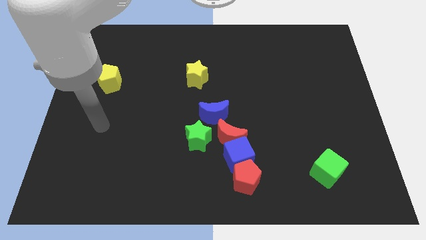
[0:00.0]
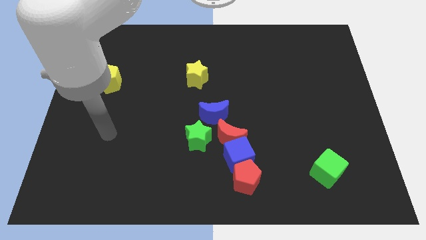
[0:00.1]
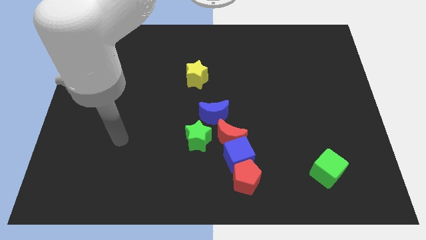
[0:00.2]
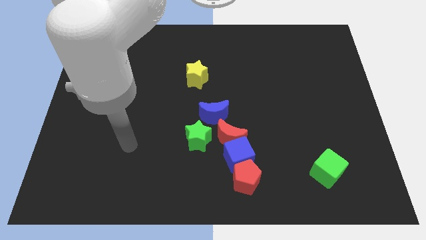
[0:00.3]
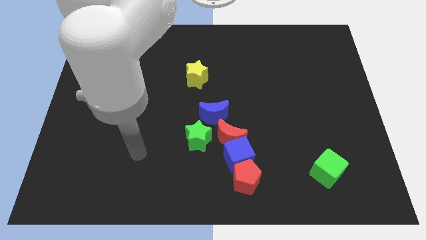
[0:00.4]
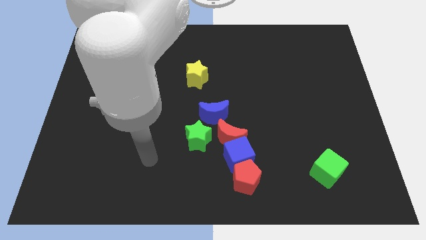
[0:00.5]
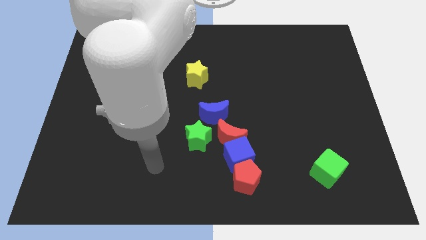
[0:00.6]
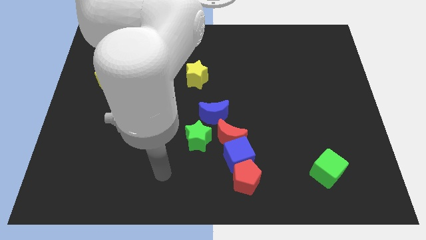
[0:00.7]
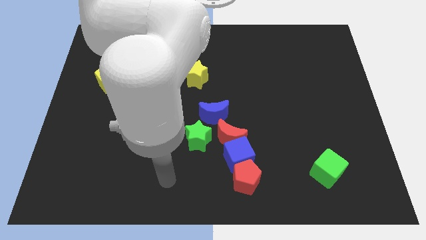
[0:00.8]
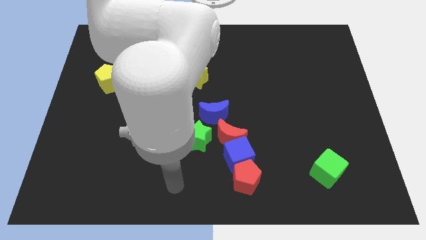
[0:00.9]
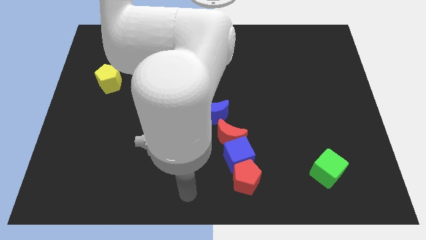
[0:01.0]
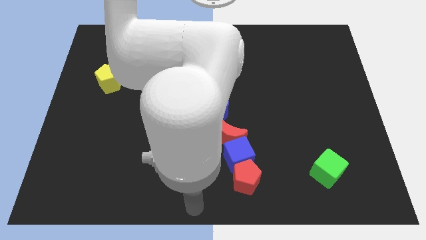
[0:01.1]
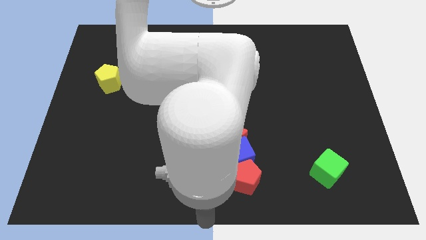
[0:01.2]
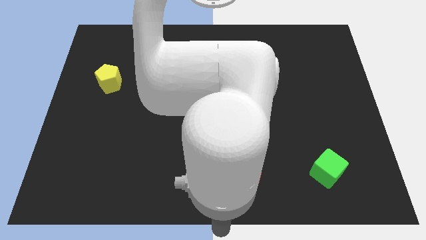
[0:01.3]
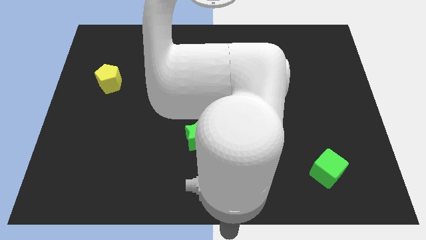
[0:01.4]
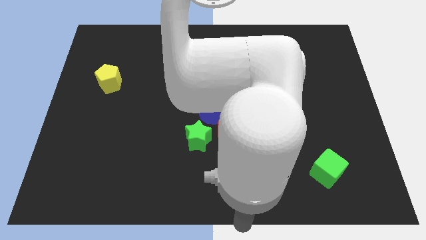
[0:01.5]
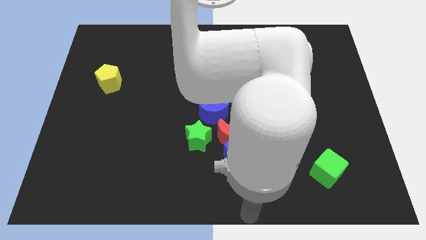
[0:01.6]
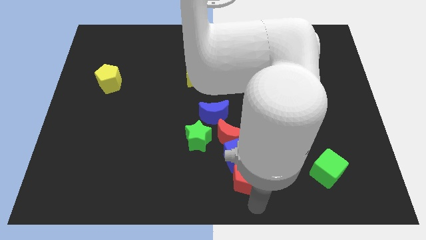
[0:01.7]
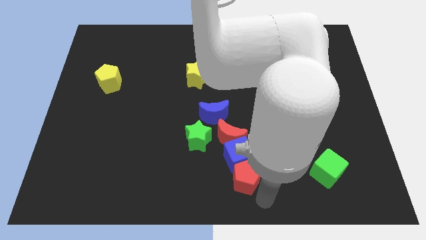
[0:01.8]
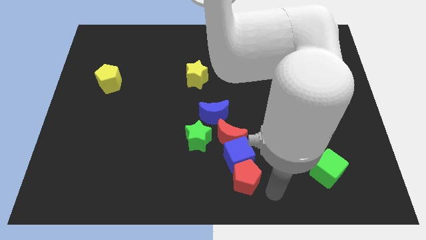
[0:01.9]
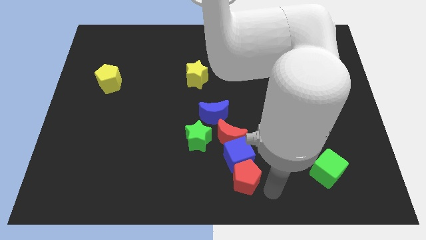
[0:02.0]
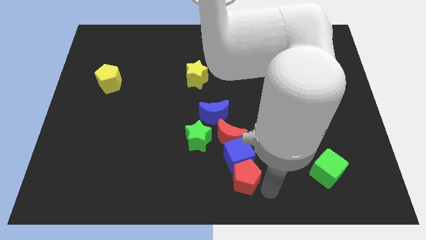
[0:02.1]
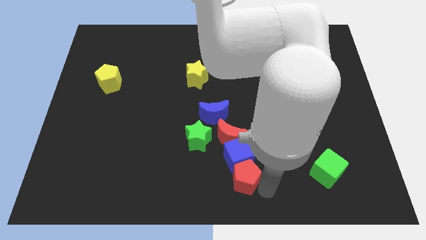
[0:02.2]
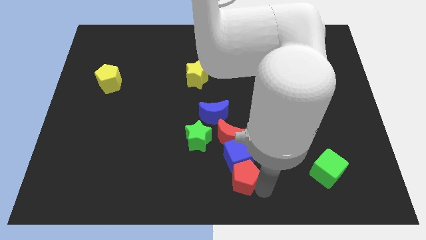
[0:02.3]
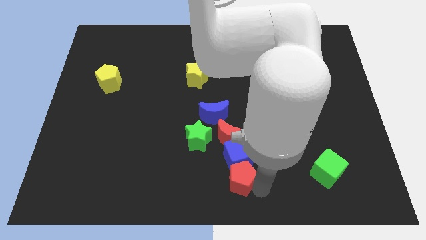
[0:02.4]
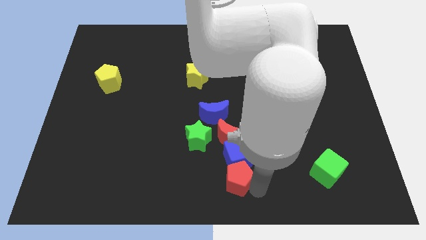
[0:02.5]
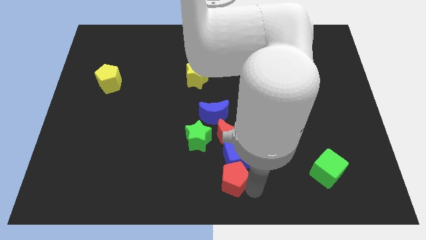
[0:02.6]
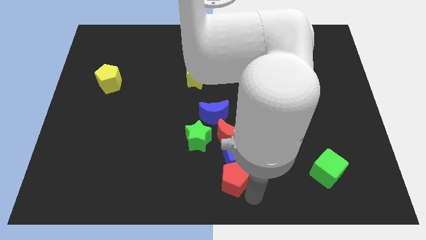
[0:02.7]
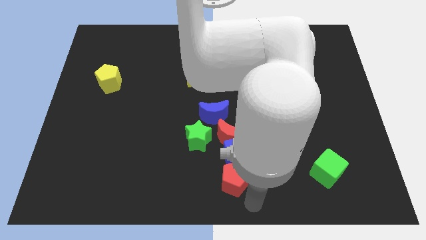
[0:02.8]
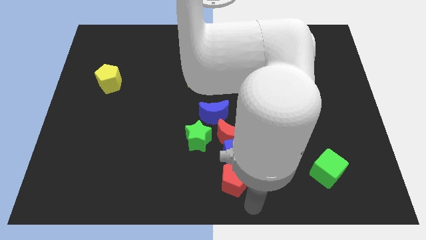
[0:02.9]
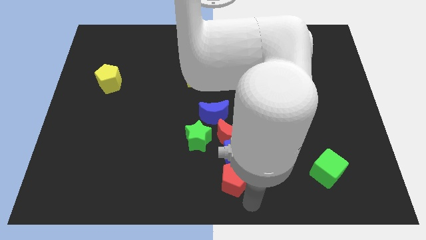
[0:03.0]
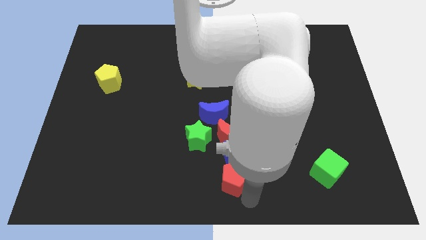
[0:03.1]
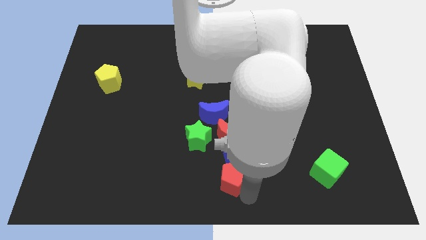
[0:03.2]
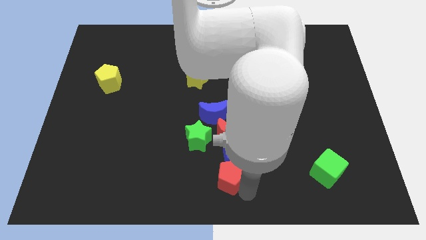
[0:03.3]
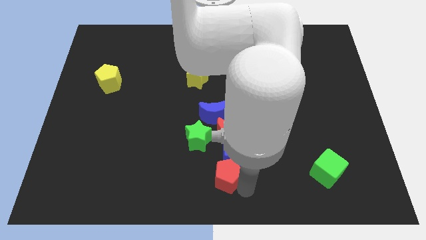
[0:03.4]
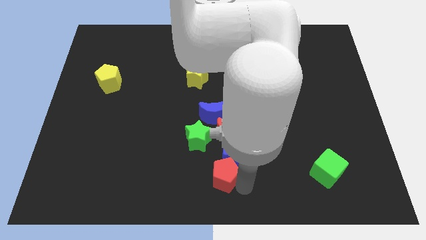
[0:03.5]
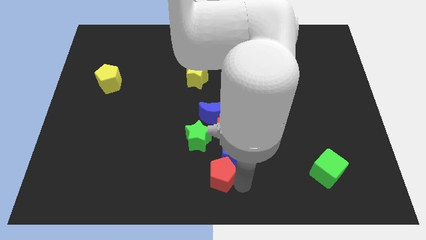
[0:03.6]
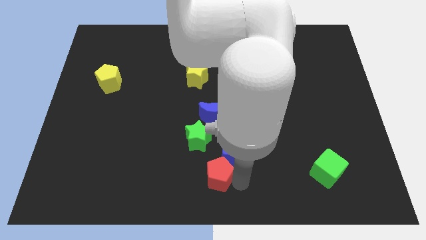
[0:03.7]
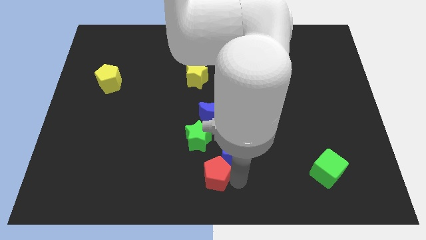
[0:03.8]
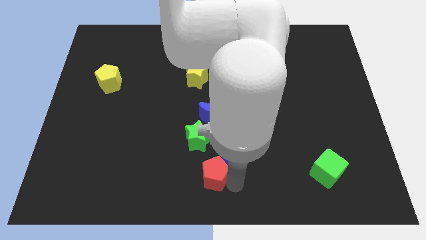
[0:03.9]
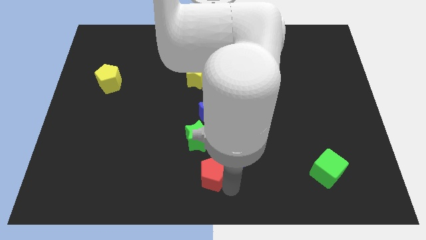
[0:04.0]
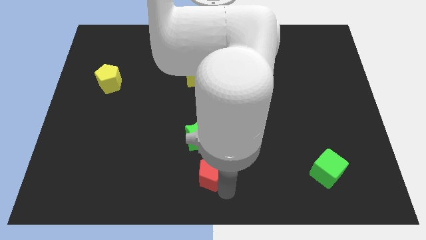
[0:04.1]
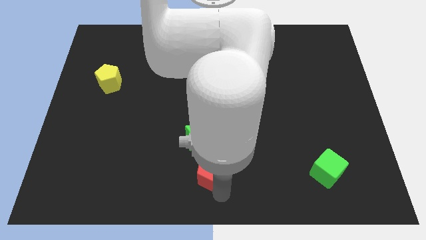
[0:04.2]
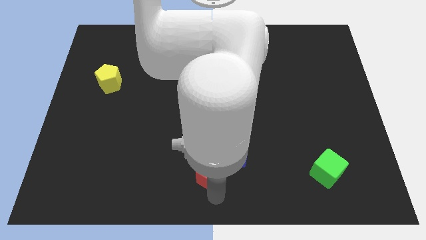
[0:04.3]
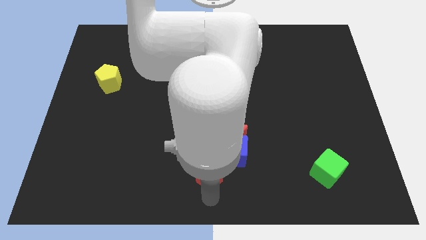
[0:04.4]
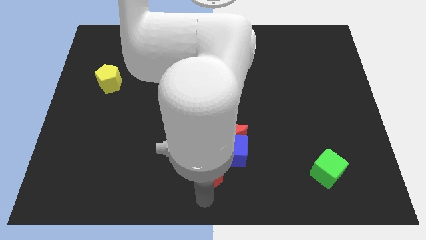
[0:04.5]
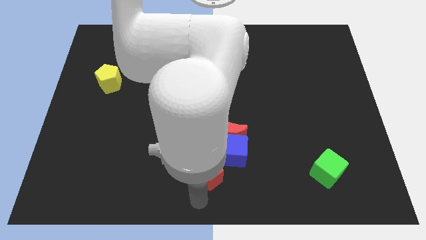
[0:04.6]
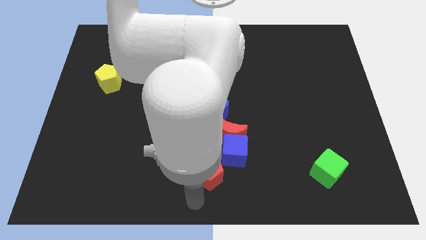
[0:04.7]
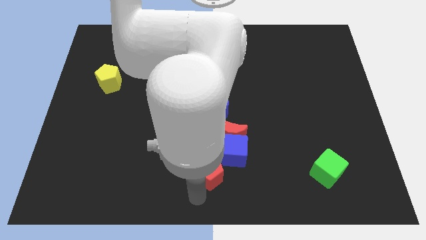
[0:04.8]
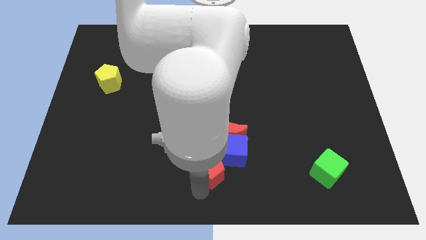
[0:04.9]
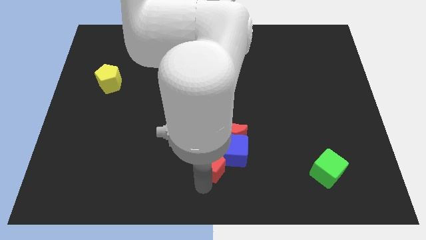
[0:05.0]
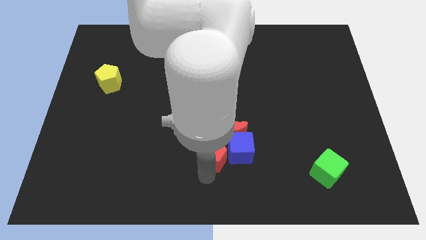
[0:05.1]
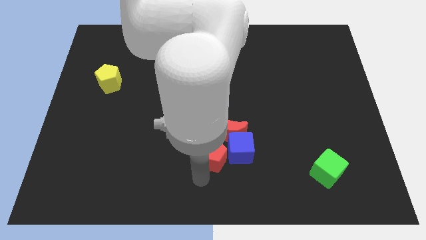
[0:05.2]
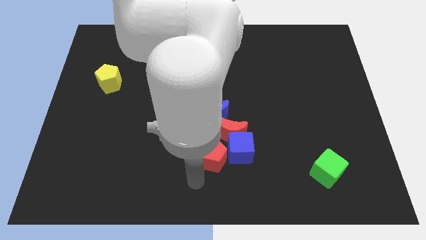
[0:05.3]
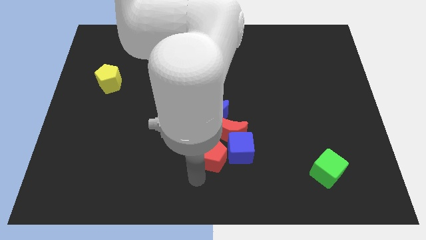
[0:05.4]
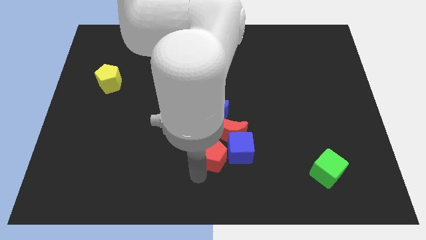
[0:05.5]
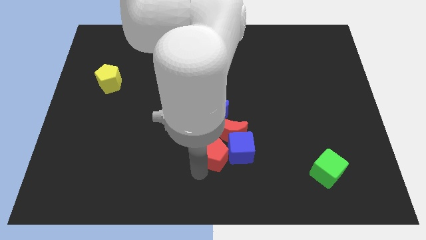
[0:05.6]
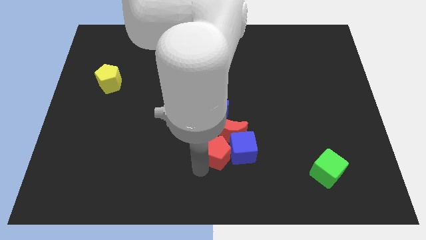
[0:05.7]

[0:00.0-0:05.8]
slide the red pentagon close to the red moon

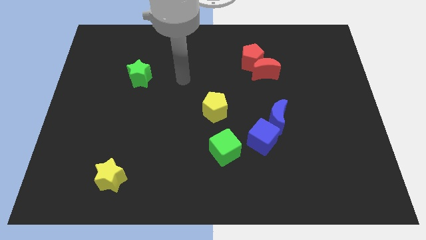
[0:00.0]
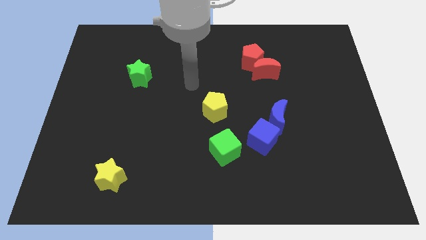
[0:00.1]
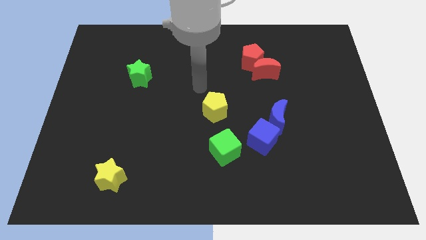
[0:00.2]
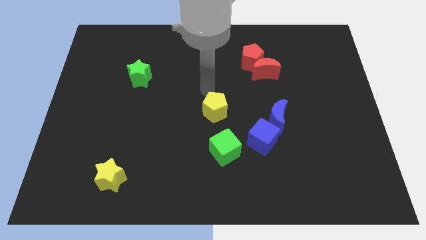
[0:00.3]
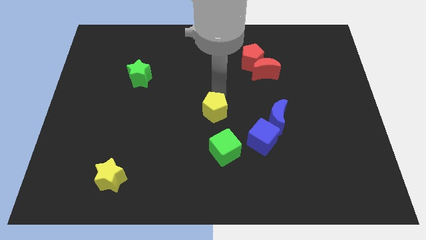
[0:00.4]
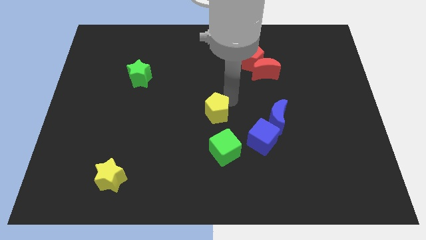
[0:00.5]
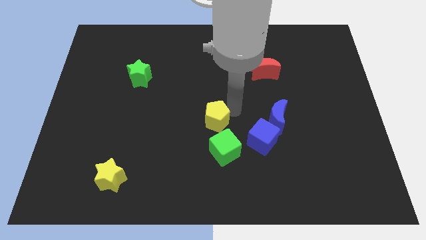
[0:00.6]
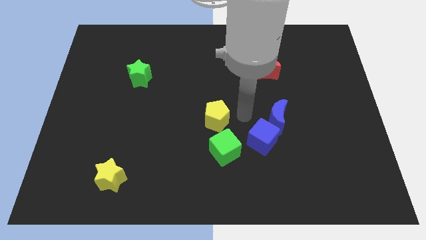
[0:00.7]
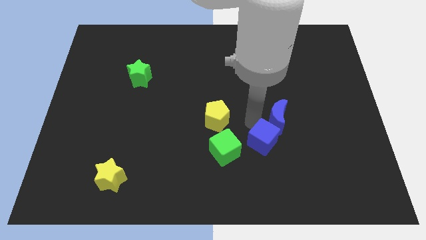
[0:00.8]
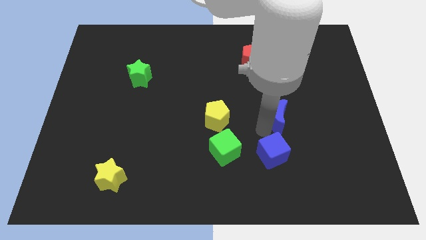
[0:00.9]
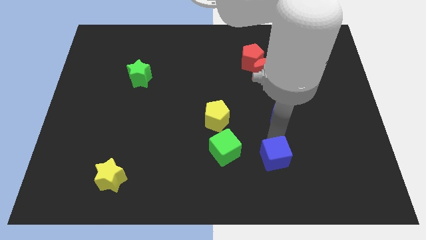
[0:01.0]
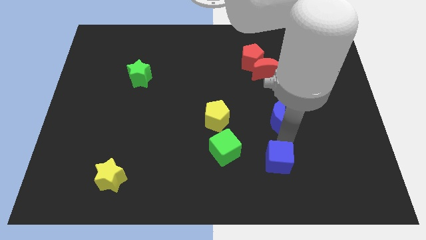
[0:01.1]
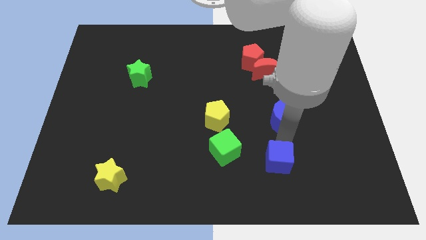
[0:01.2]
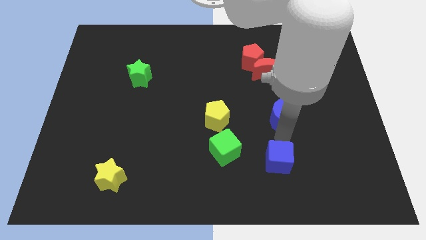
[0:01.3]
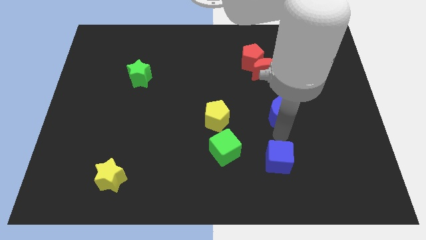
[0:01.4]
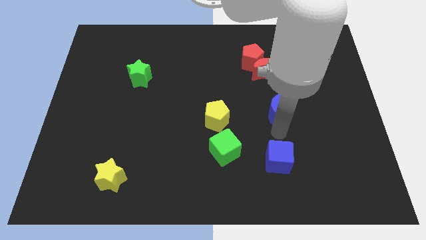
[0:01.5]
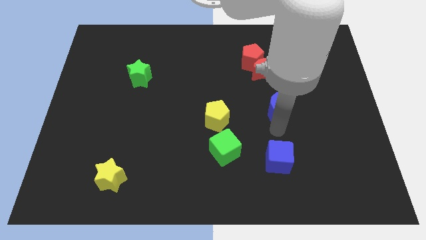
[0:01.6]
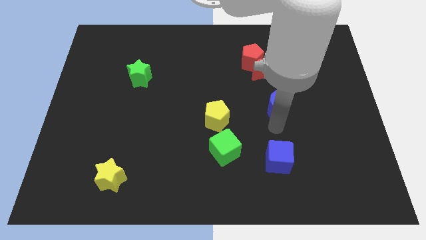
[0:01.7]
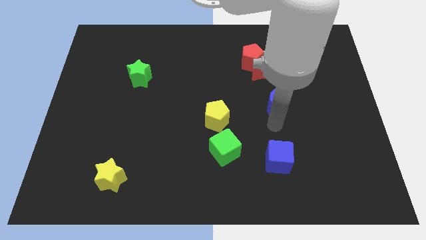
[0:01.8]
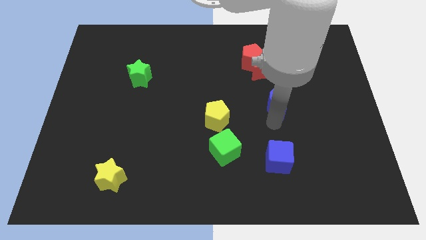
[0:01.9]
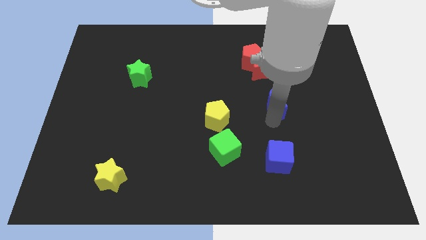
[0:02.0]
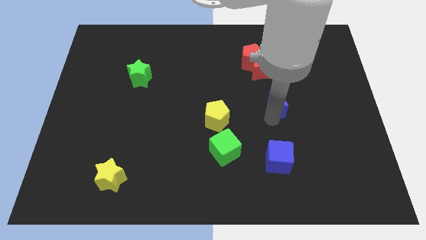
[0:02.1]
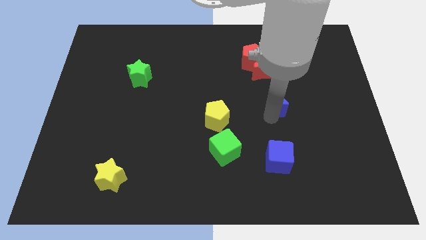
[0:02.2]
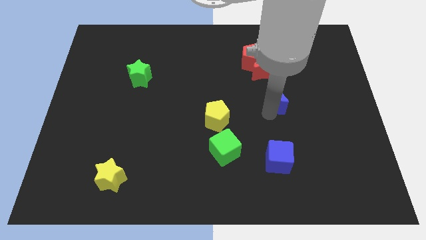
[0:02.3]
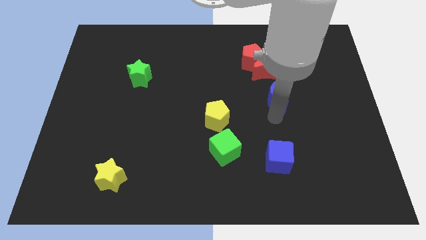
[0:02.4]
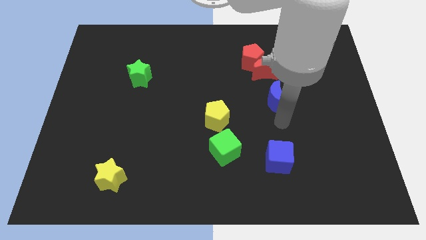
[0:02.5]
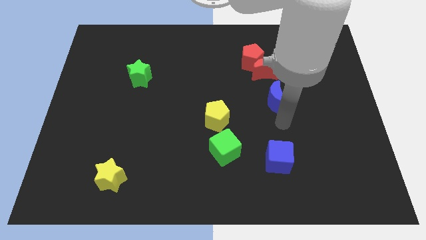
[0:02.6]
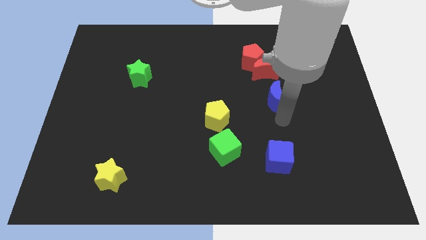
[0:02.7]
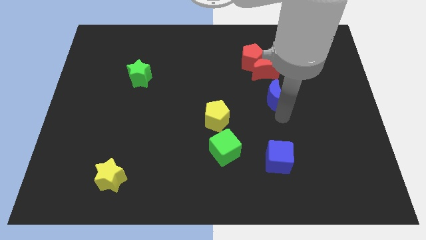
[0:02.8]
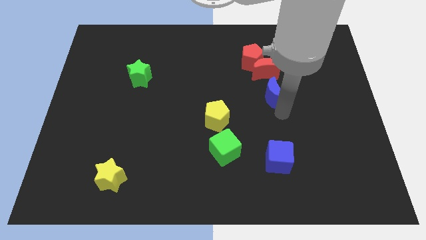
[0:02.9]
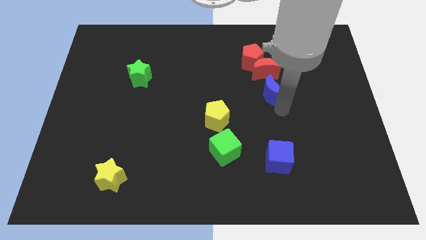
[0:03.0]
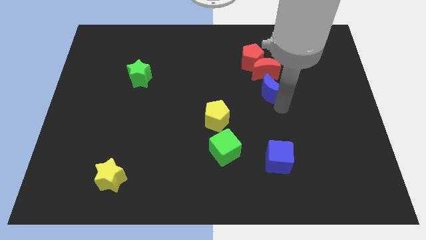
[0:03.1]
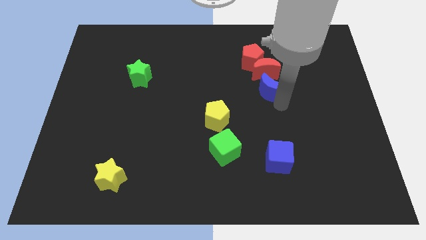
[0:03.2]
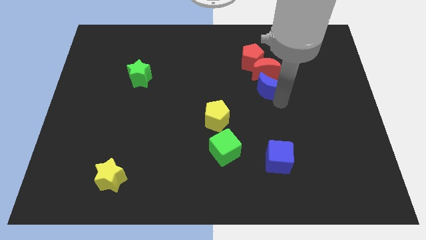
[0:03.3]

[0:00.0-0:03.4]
push the blue moon to the red moon
